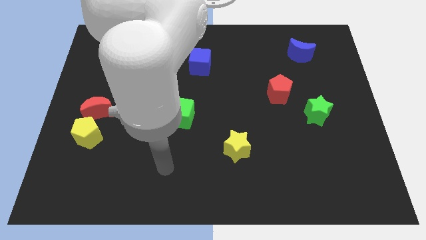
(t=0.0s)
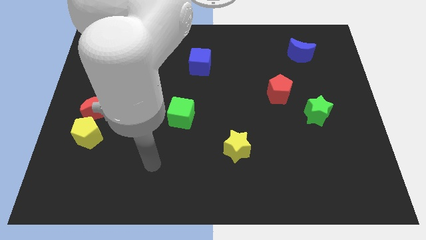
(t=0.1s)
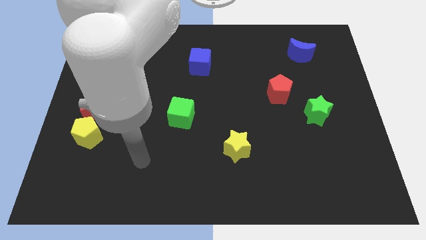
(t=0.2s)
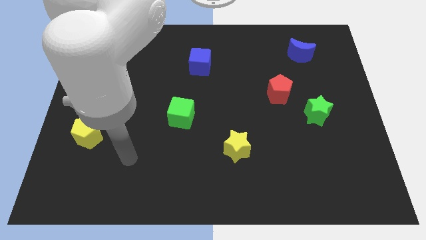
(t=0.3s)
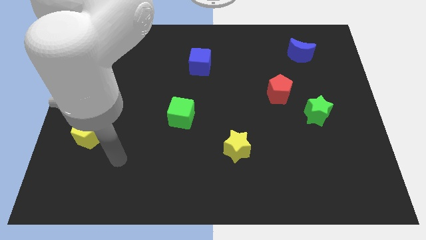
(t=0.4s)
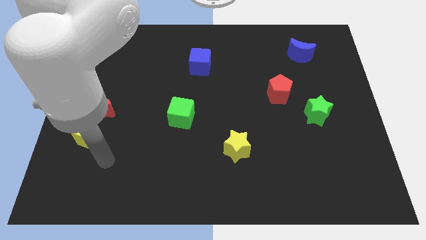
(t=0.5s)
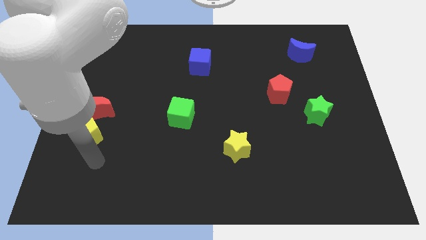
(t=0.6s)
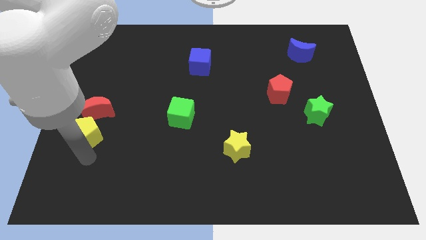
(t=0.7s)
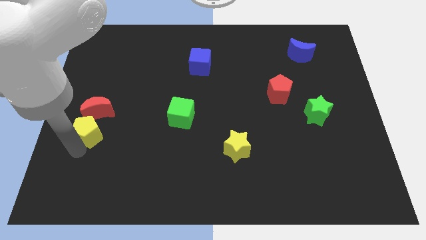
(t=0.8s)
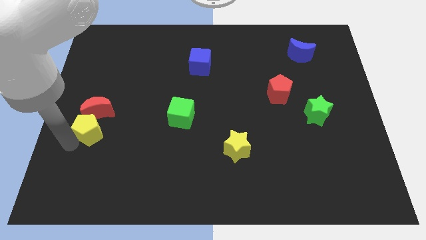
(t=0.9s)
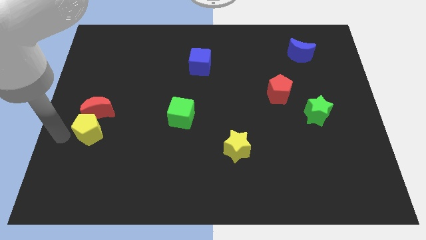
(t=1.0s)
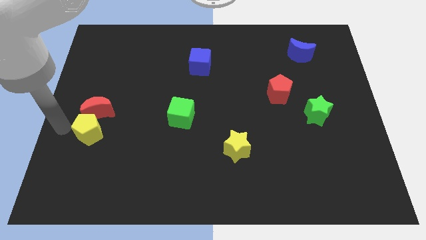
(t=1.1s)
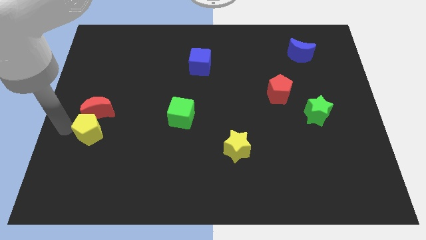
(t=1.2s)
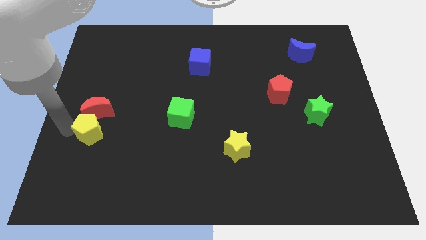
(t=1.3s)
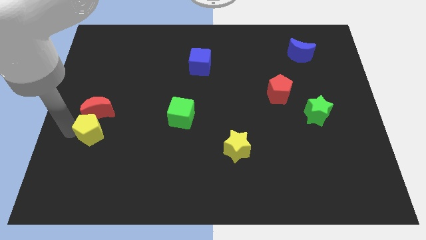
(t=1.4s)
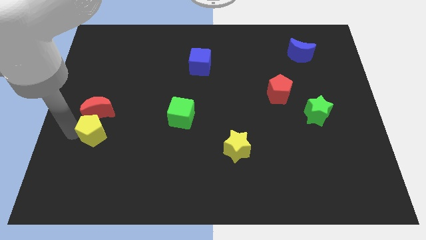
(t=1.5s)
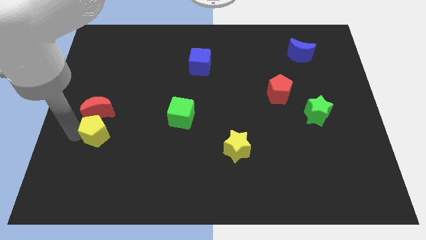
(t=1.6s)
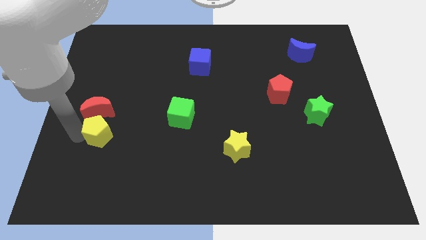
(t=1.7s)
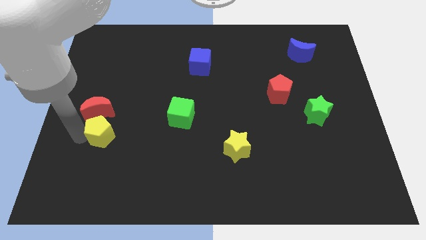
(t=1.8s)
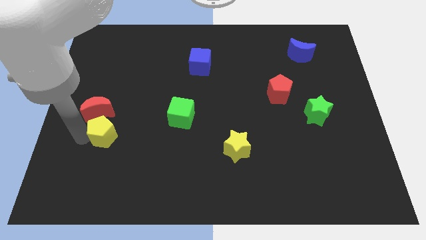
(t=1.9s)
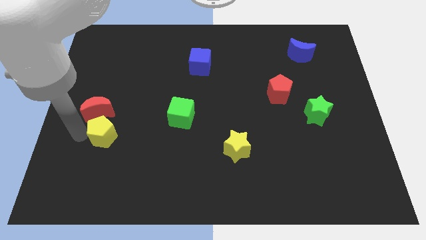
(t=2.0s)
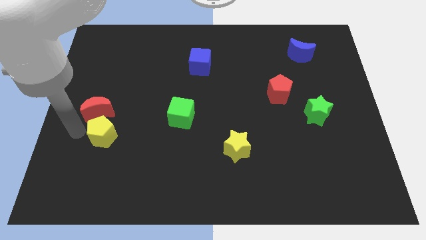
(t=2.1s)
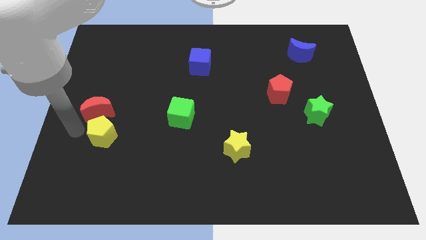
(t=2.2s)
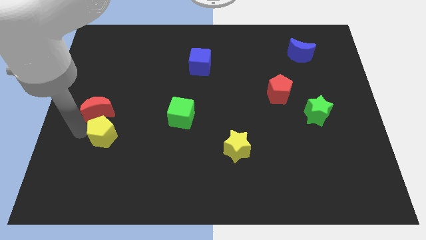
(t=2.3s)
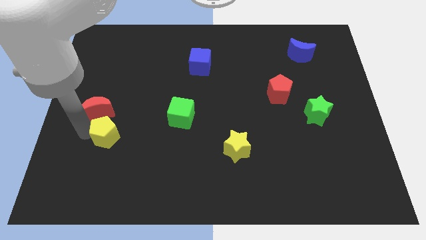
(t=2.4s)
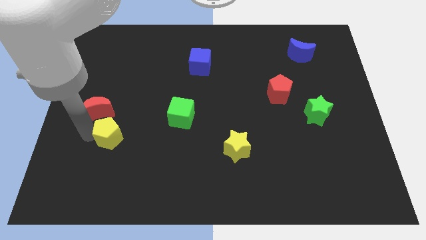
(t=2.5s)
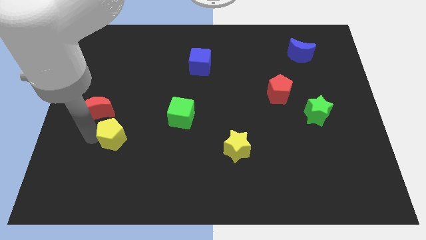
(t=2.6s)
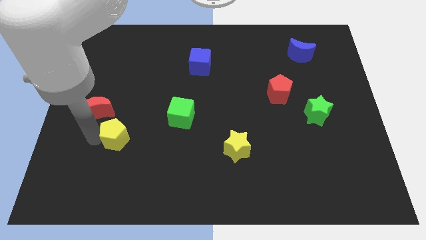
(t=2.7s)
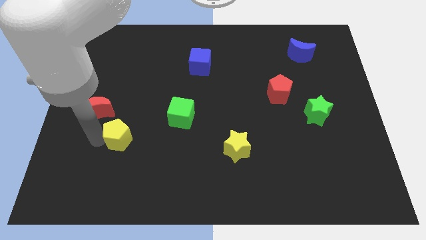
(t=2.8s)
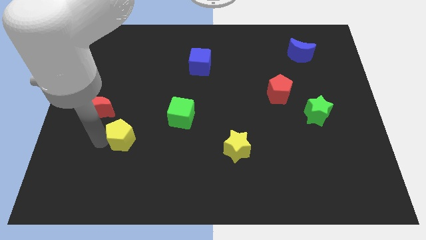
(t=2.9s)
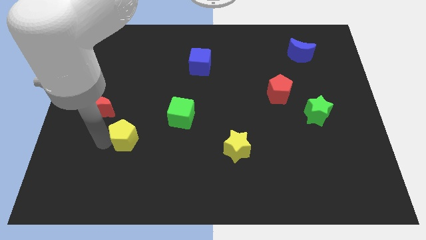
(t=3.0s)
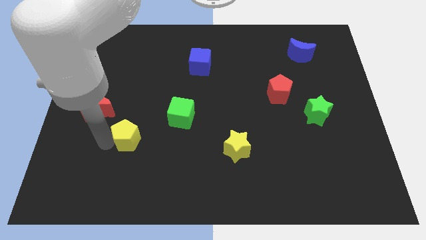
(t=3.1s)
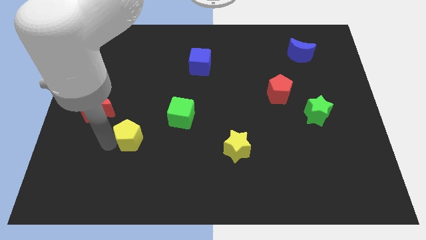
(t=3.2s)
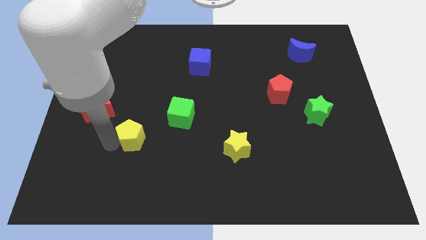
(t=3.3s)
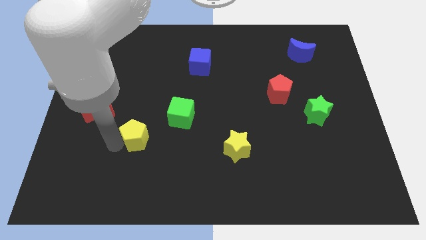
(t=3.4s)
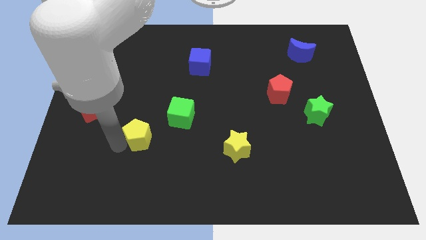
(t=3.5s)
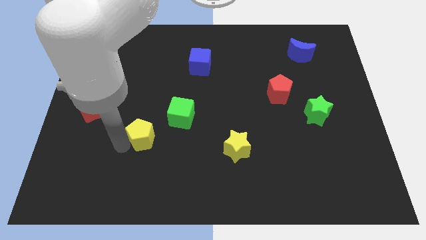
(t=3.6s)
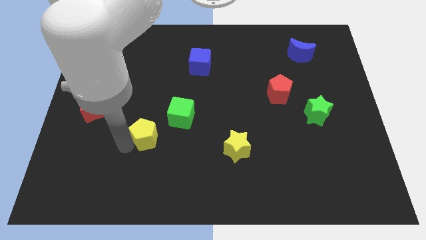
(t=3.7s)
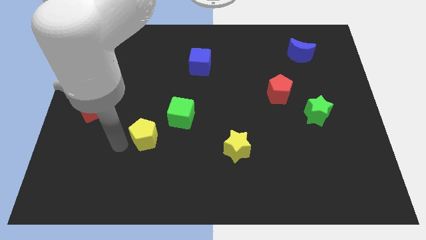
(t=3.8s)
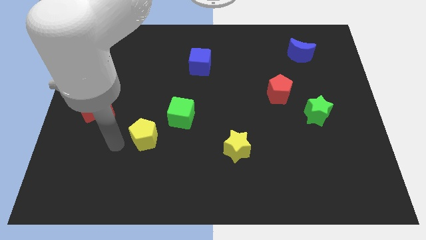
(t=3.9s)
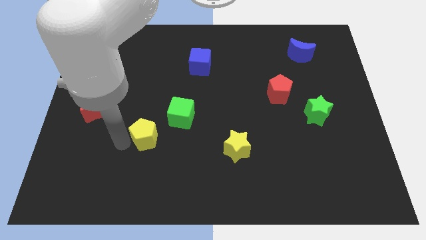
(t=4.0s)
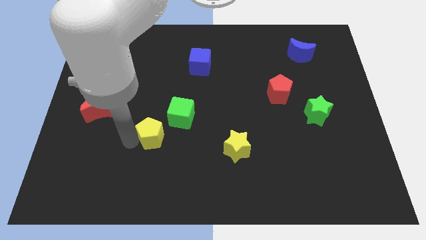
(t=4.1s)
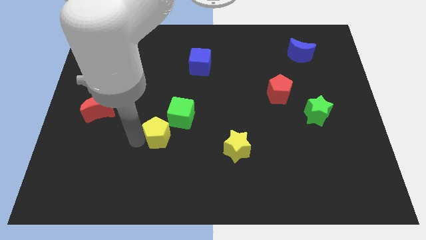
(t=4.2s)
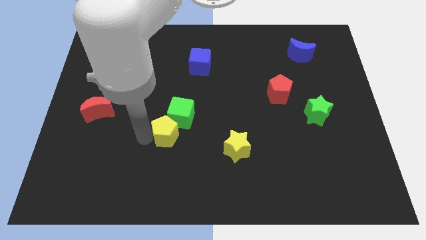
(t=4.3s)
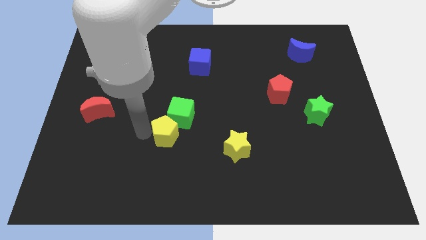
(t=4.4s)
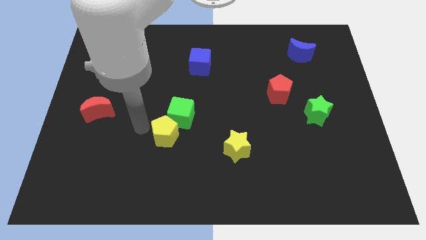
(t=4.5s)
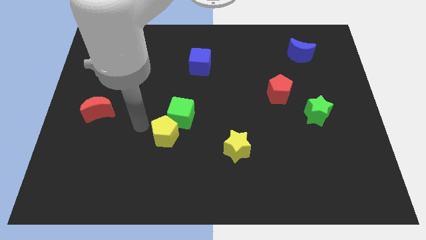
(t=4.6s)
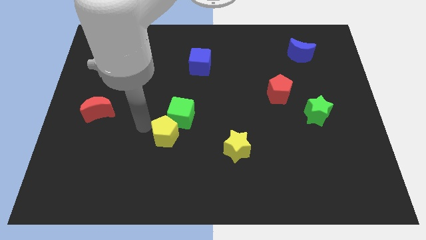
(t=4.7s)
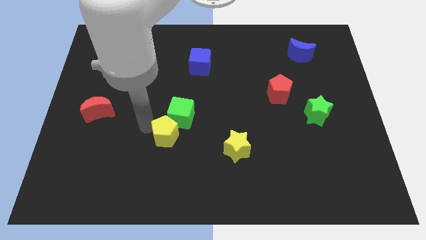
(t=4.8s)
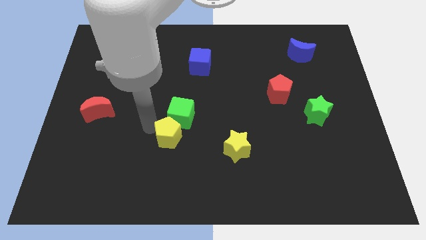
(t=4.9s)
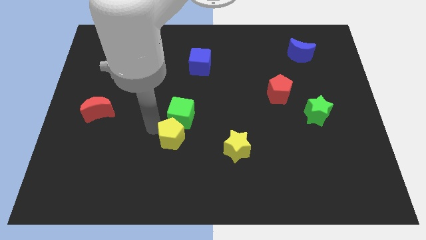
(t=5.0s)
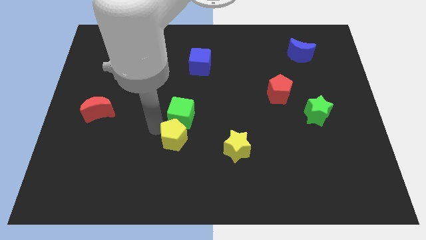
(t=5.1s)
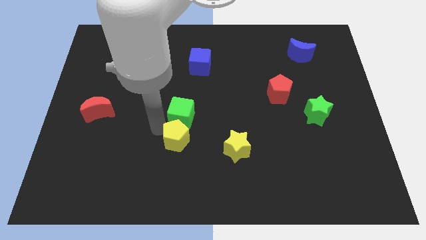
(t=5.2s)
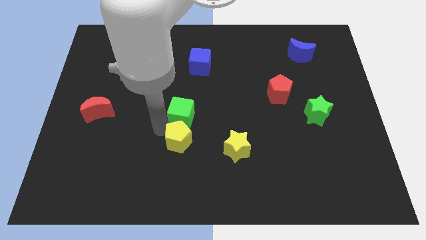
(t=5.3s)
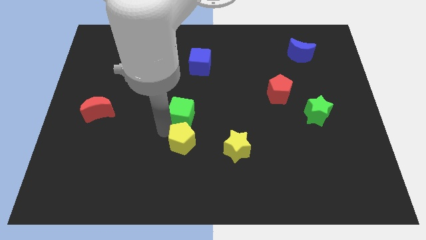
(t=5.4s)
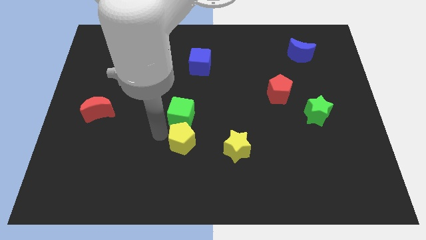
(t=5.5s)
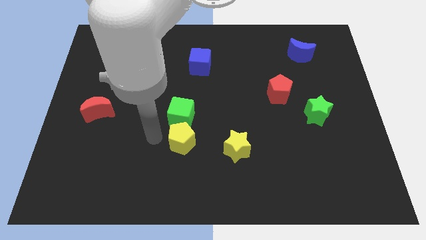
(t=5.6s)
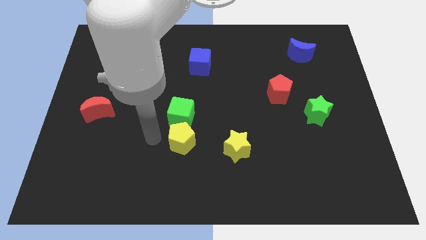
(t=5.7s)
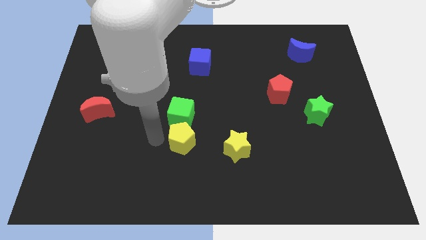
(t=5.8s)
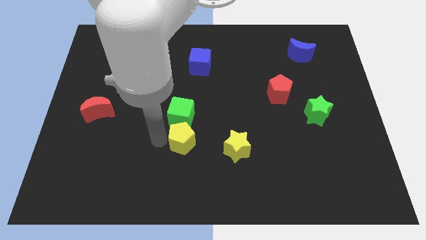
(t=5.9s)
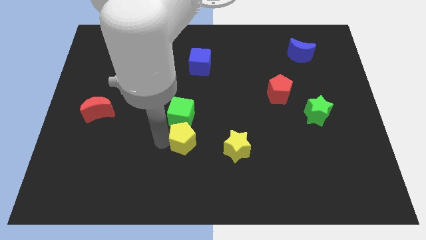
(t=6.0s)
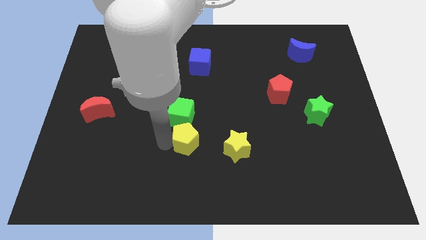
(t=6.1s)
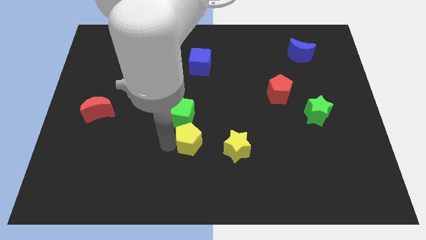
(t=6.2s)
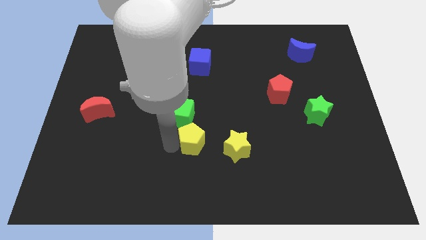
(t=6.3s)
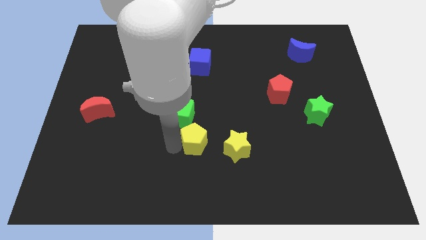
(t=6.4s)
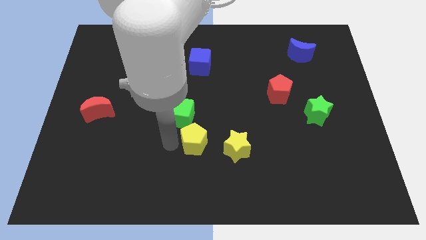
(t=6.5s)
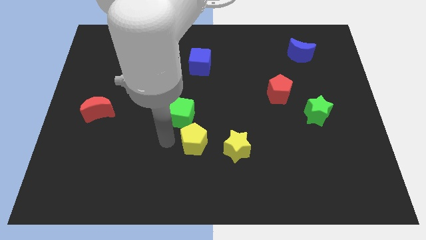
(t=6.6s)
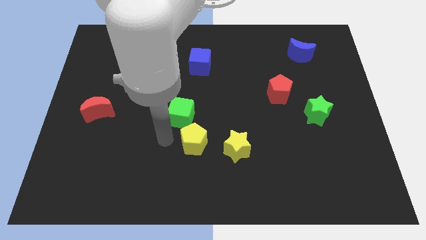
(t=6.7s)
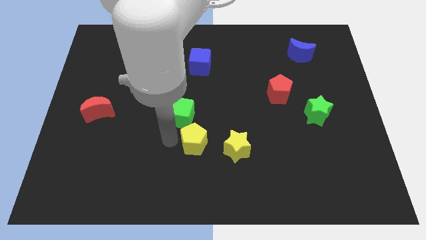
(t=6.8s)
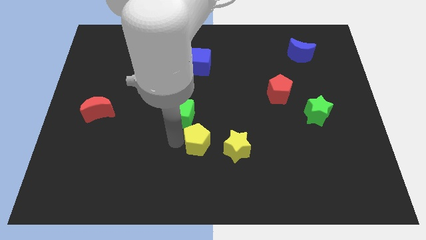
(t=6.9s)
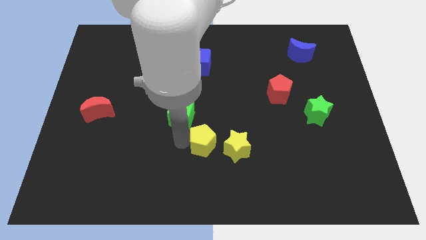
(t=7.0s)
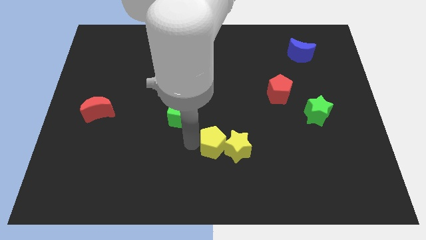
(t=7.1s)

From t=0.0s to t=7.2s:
put the yellow pentagon next to the yellow star
